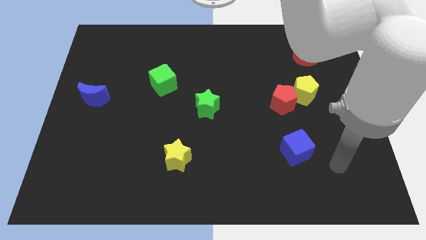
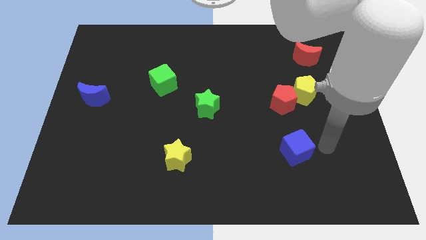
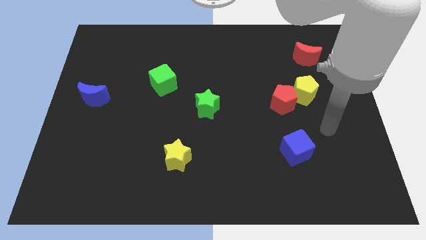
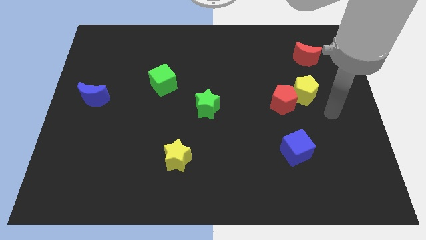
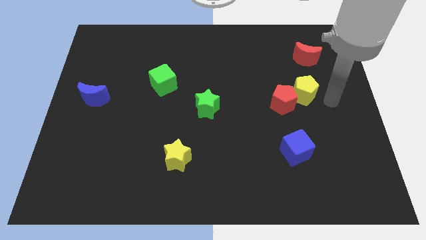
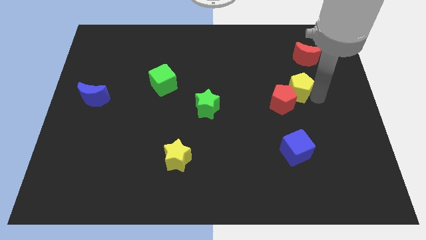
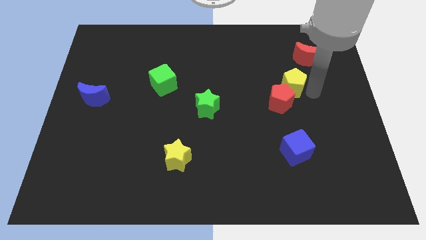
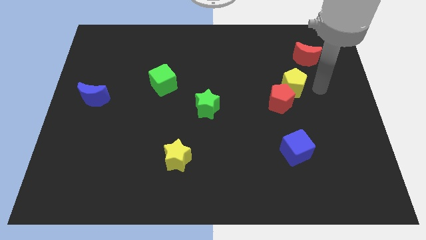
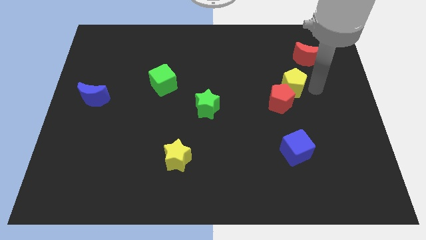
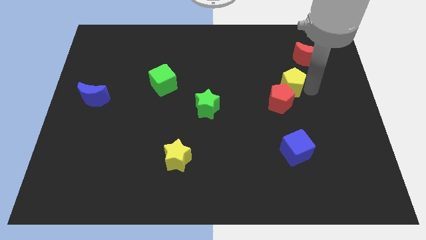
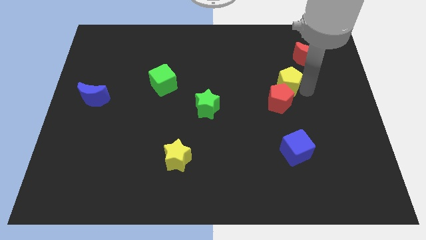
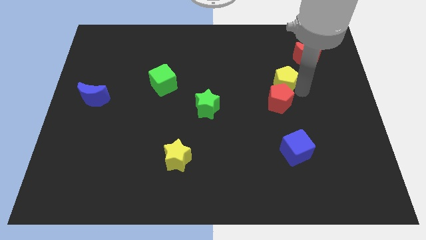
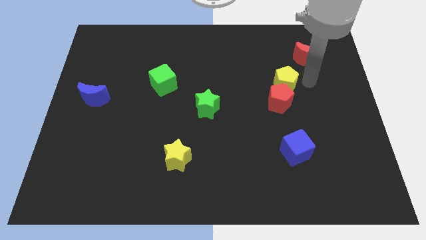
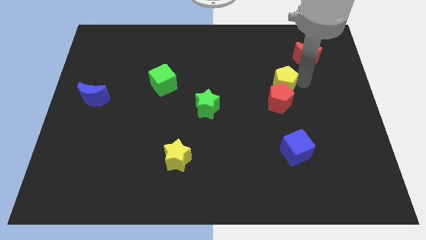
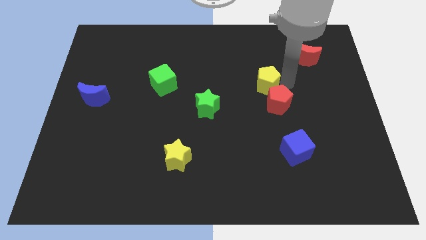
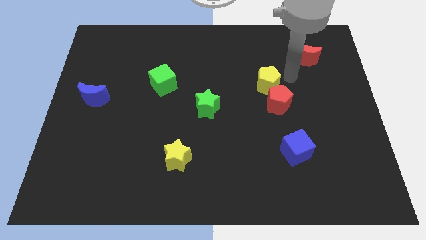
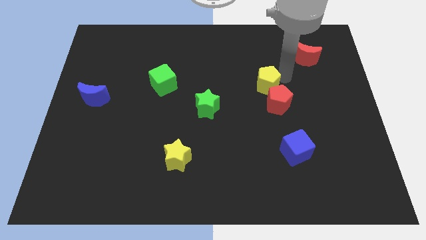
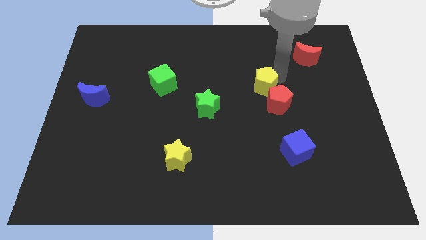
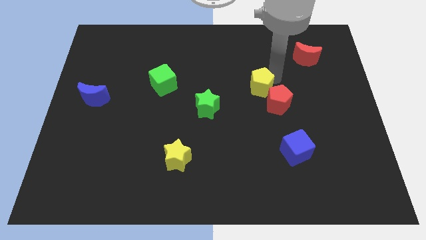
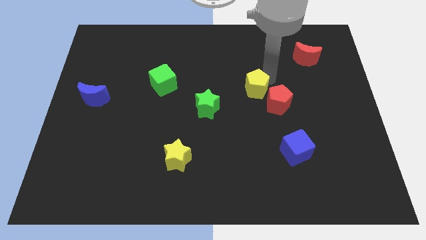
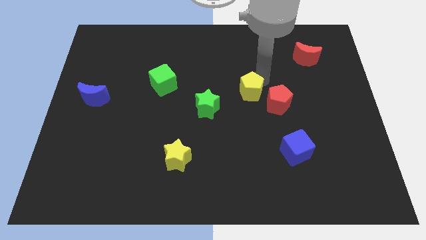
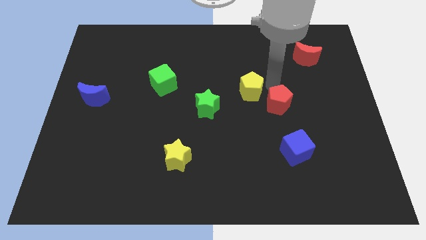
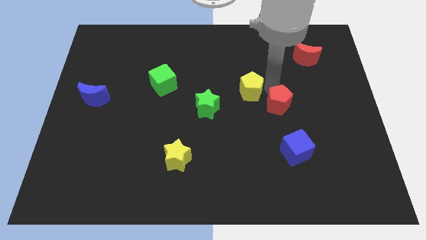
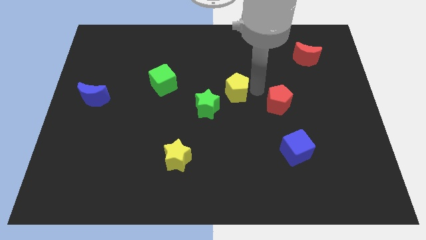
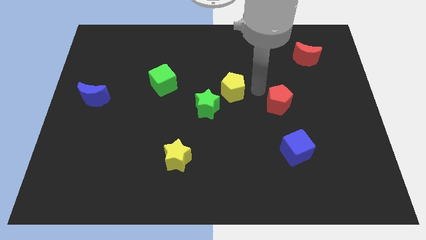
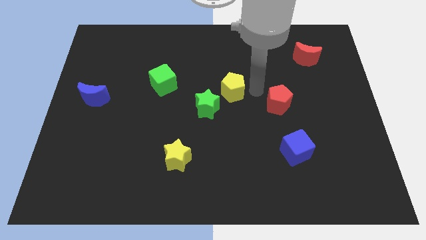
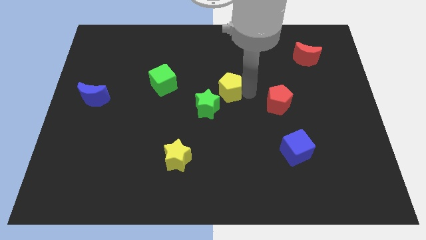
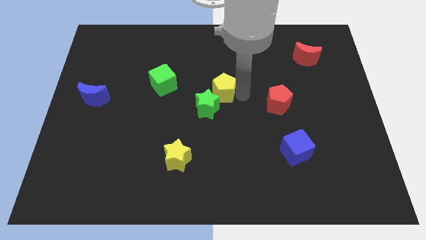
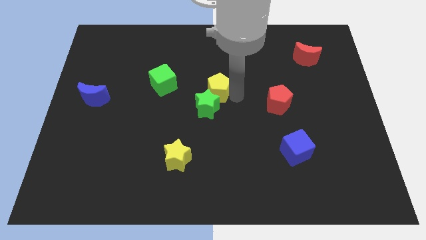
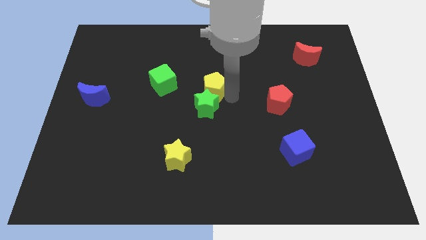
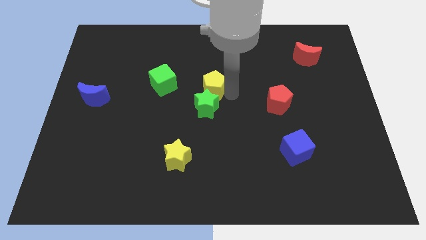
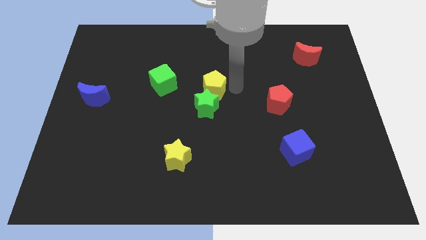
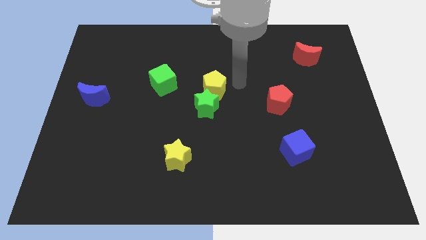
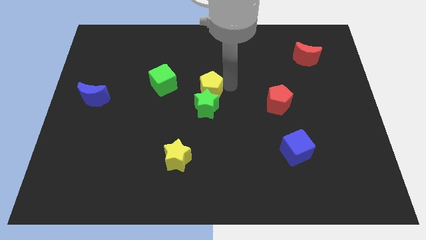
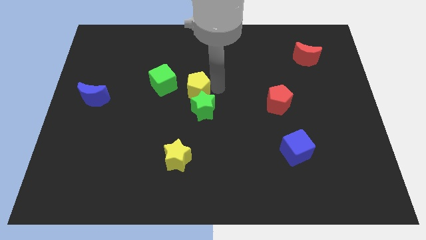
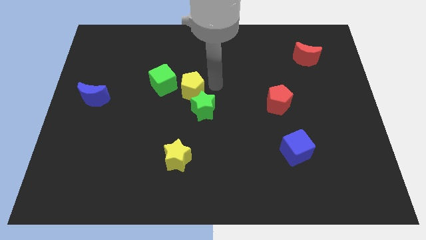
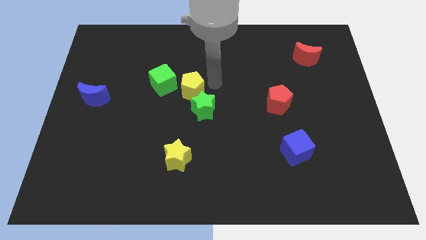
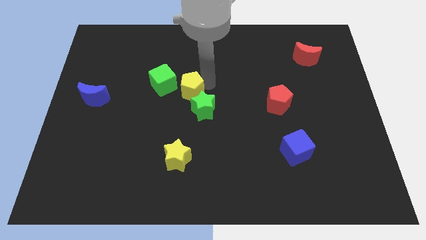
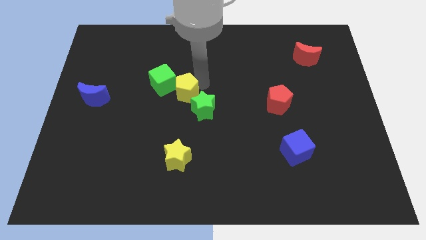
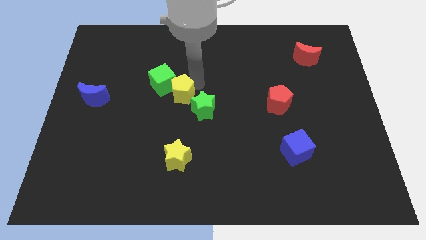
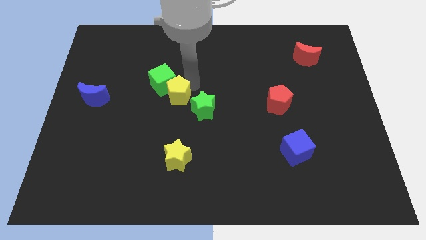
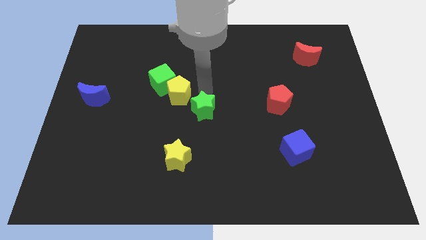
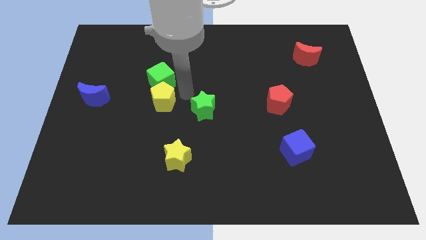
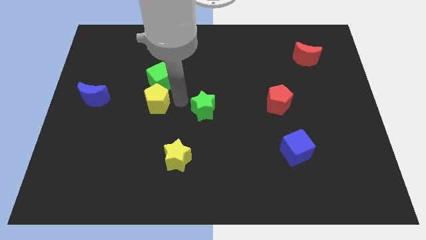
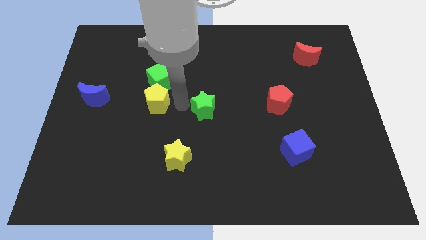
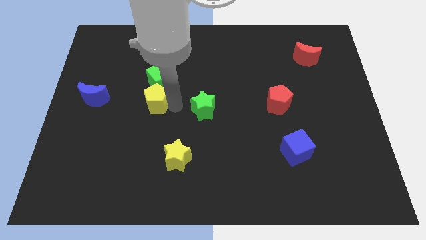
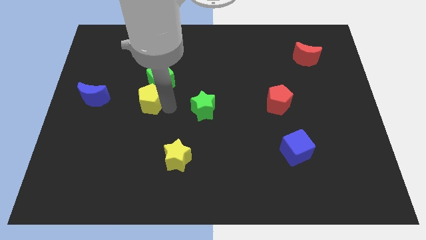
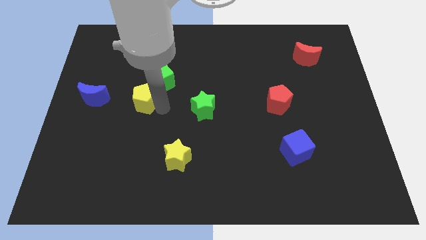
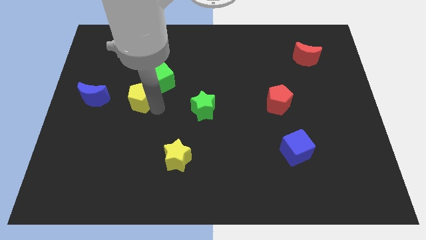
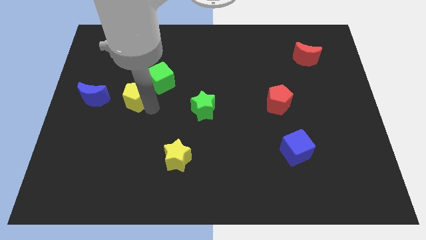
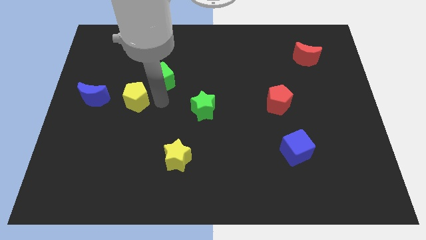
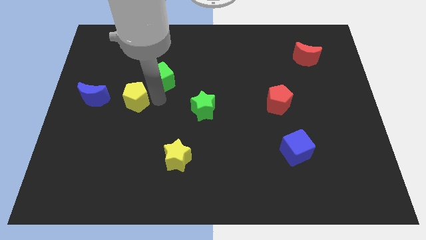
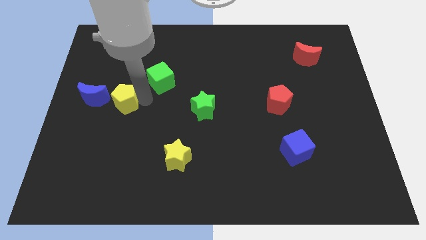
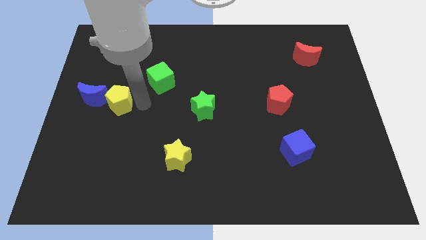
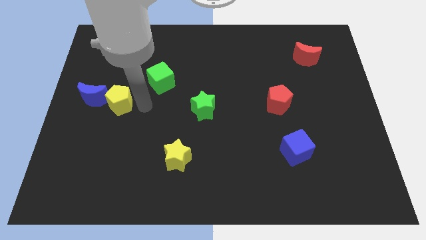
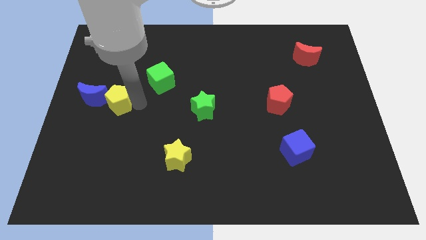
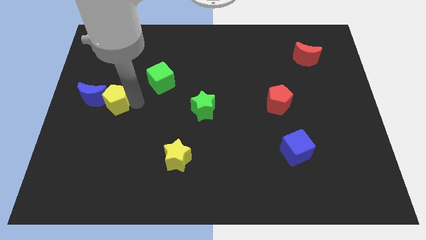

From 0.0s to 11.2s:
put the yellow pentagon to the blue moon
